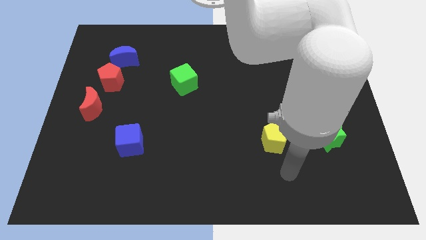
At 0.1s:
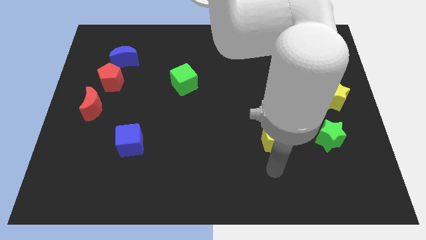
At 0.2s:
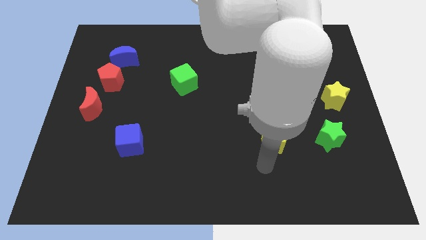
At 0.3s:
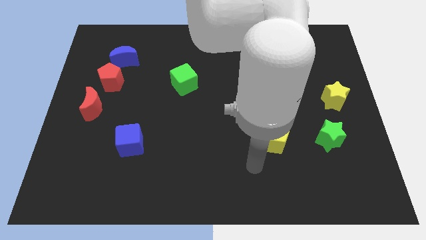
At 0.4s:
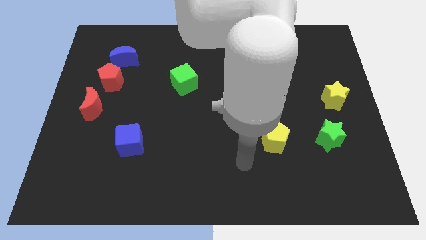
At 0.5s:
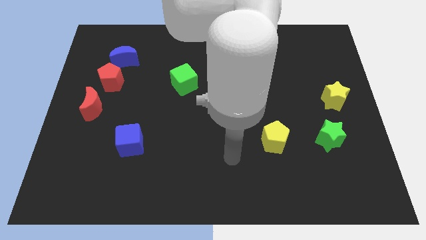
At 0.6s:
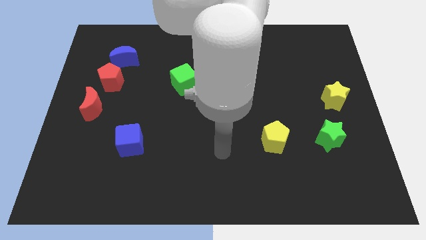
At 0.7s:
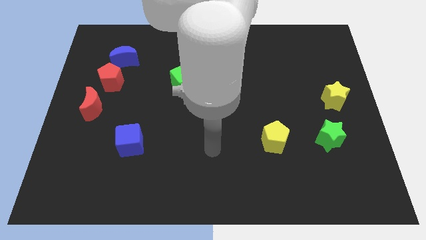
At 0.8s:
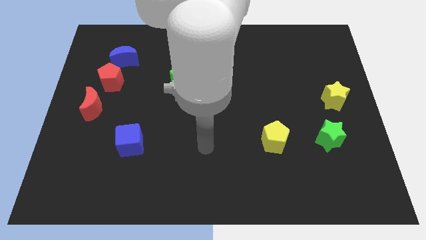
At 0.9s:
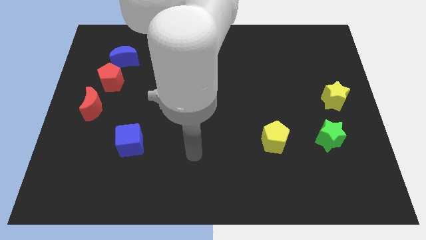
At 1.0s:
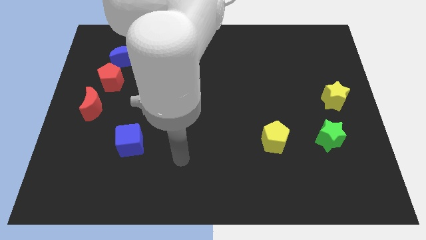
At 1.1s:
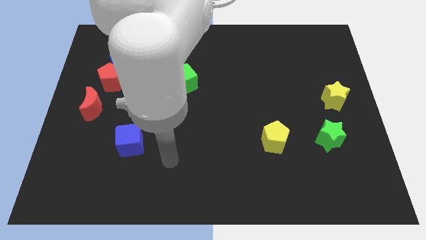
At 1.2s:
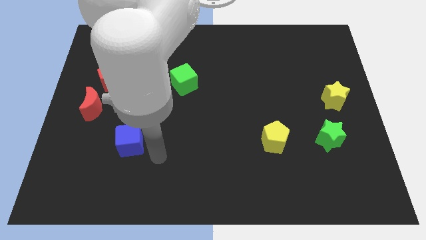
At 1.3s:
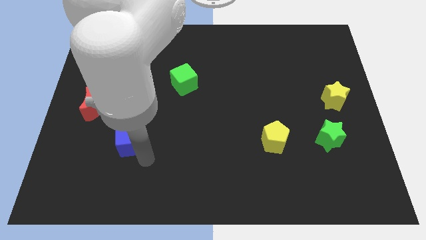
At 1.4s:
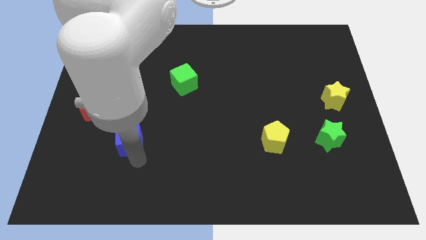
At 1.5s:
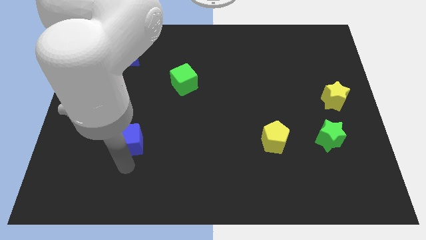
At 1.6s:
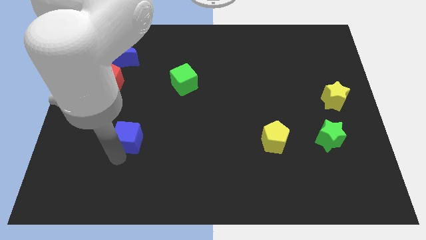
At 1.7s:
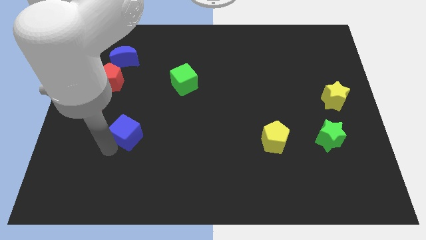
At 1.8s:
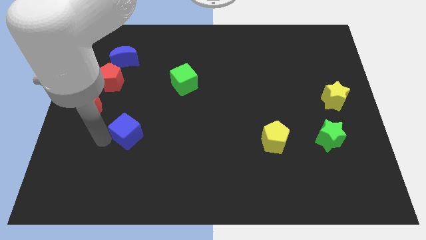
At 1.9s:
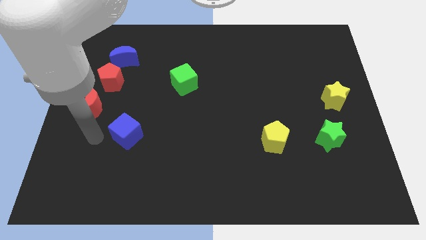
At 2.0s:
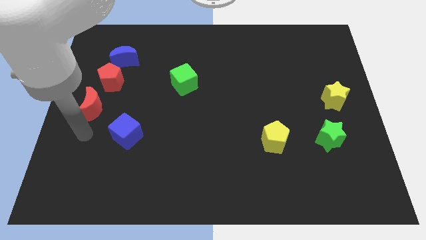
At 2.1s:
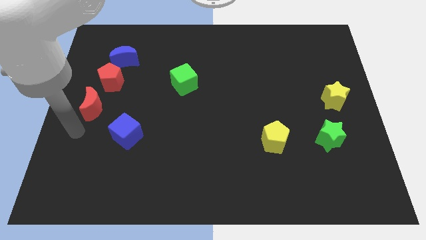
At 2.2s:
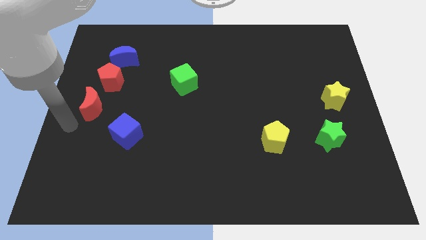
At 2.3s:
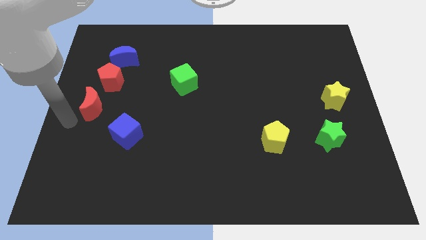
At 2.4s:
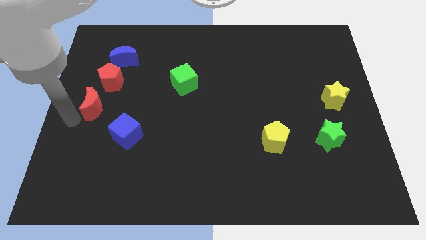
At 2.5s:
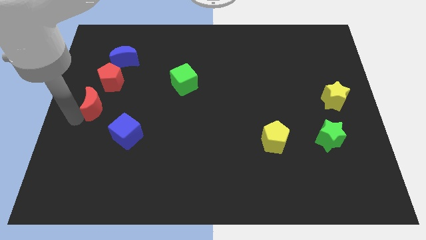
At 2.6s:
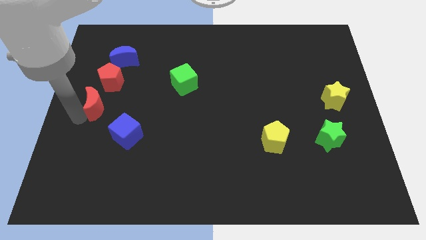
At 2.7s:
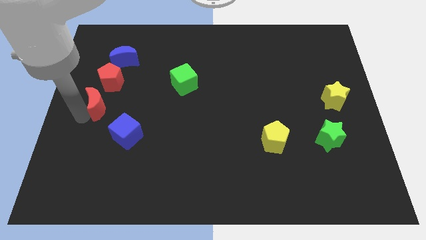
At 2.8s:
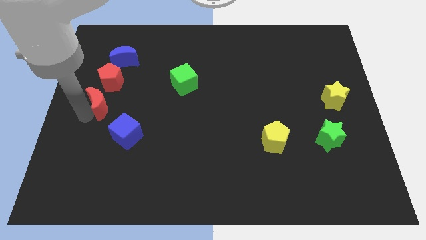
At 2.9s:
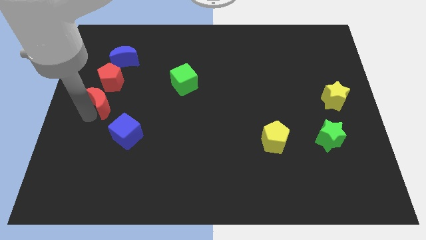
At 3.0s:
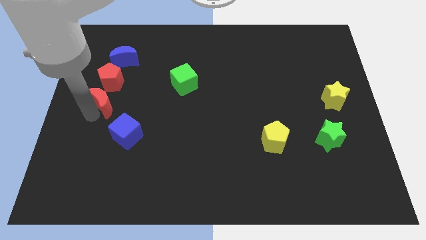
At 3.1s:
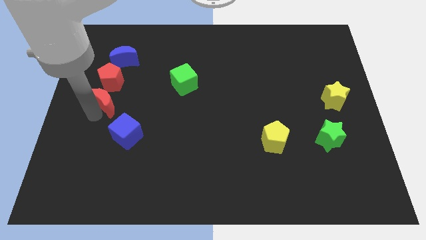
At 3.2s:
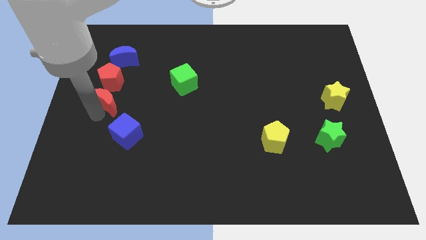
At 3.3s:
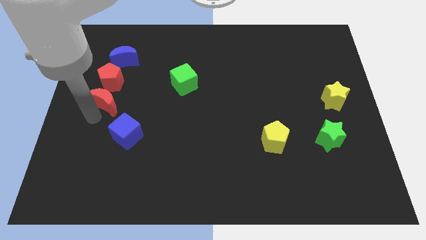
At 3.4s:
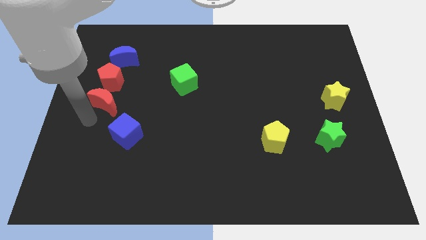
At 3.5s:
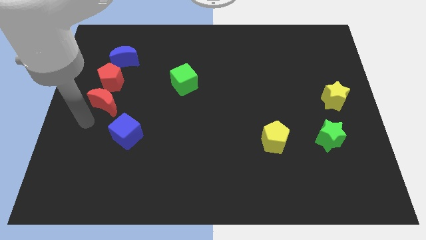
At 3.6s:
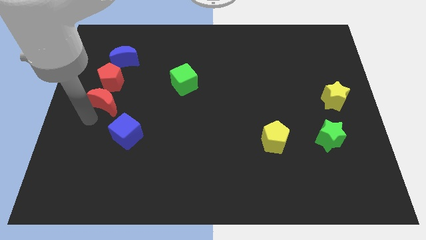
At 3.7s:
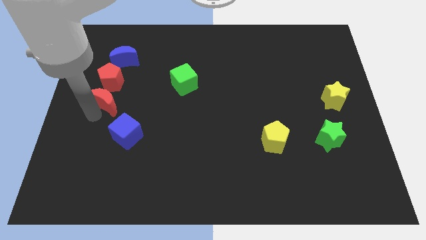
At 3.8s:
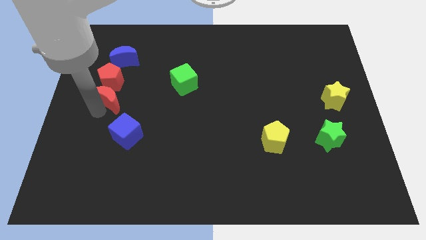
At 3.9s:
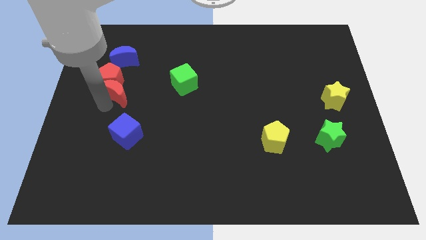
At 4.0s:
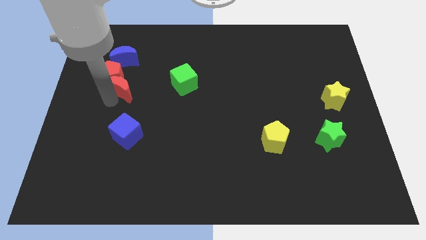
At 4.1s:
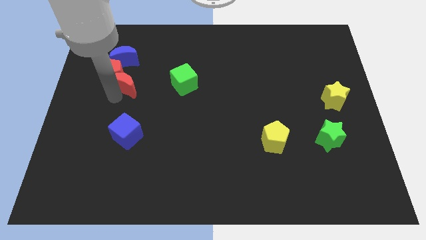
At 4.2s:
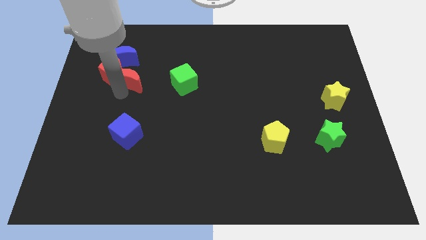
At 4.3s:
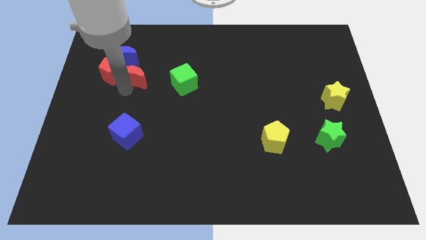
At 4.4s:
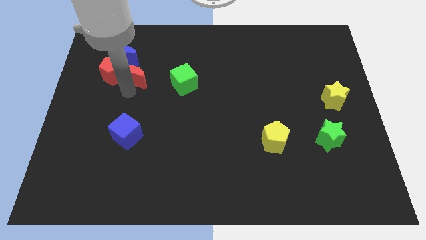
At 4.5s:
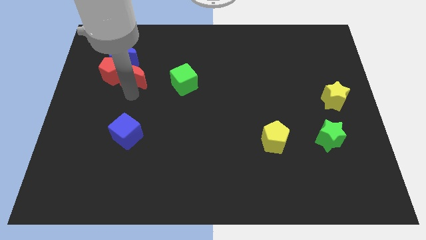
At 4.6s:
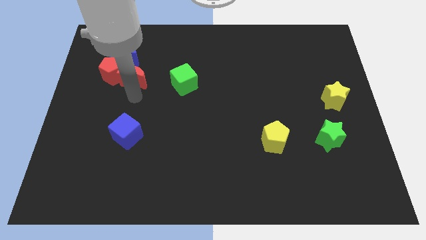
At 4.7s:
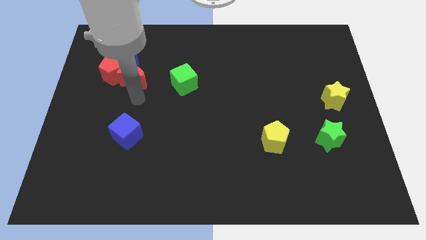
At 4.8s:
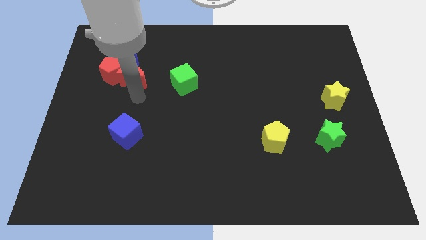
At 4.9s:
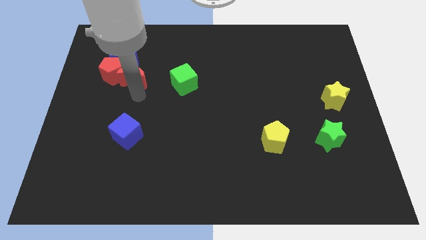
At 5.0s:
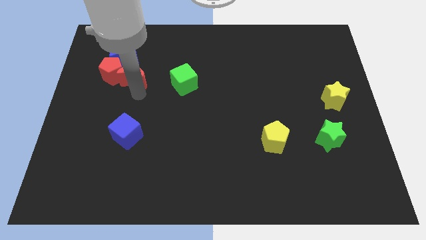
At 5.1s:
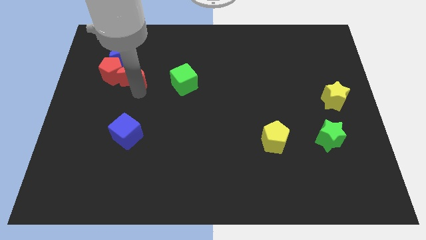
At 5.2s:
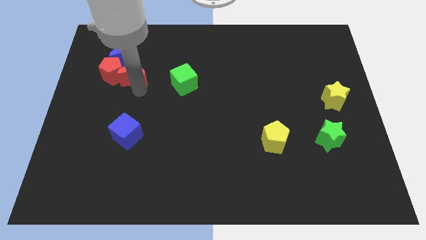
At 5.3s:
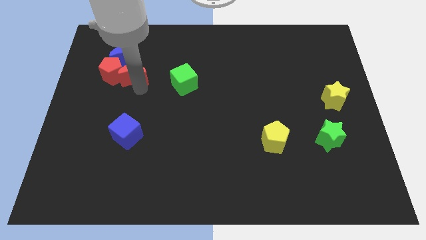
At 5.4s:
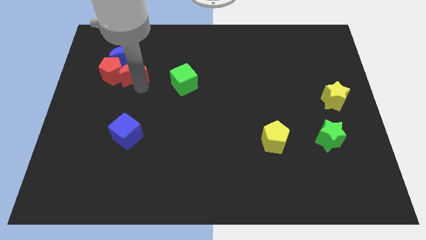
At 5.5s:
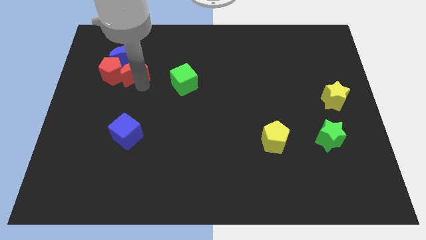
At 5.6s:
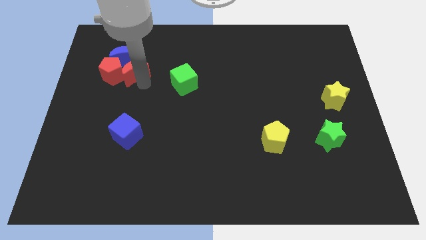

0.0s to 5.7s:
put the red moon next to the blue moon

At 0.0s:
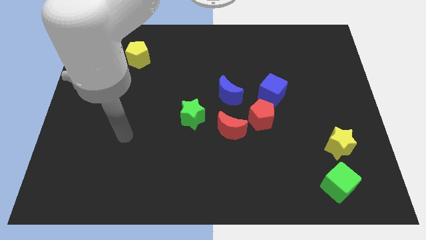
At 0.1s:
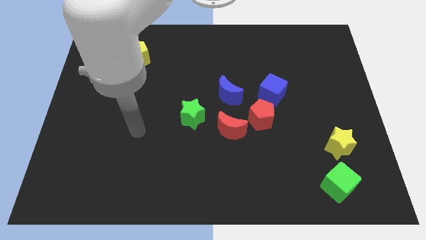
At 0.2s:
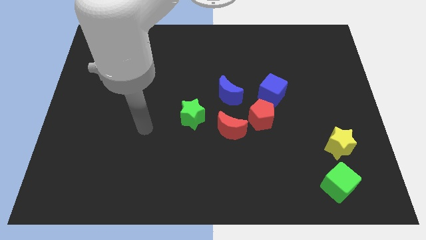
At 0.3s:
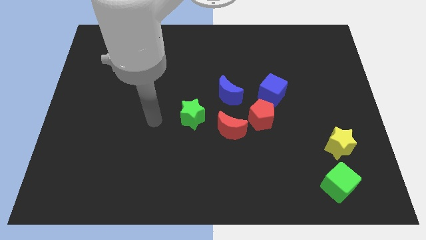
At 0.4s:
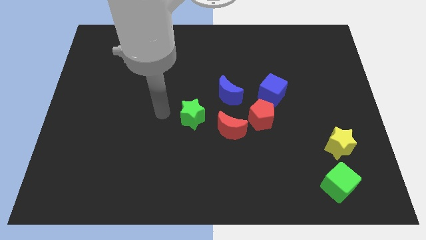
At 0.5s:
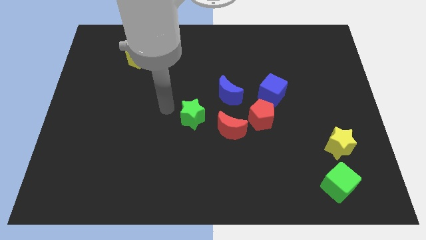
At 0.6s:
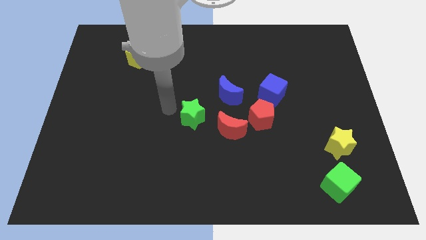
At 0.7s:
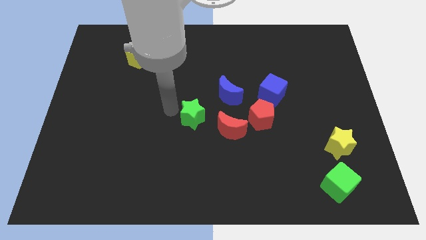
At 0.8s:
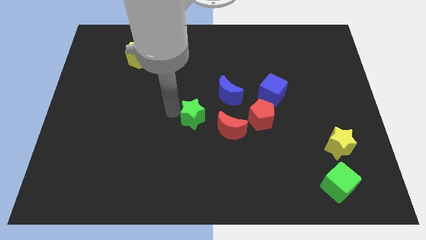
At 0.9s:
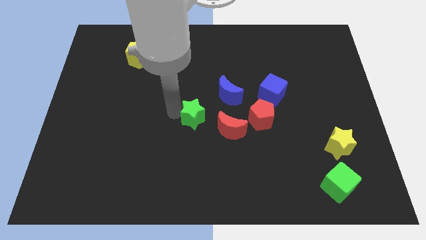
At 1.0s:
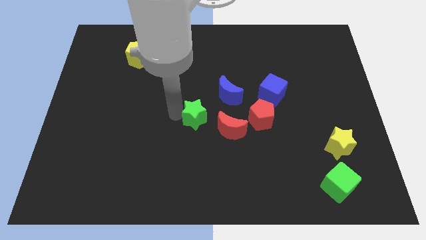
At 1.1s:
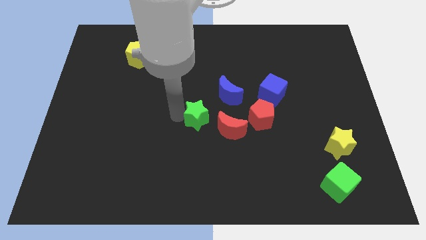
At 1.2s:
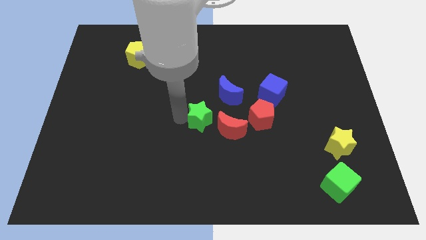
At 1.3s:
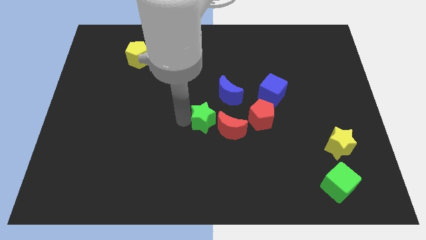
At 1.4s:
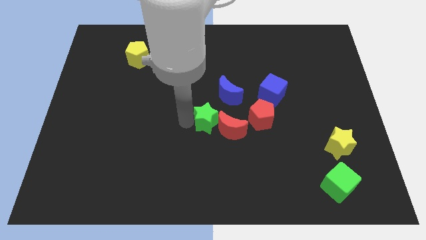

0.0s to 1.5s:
slide the green star to the red moon
